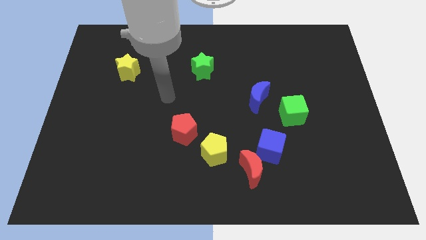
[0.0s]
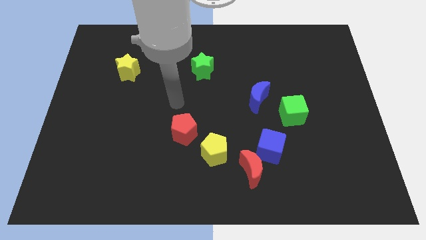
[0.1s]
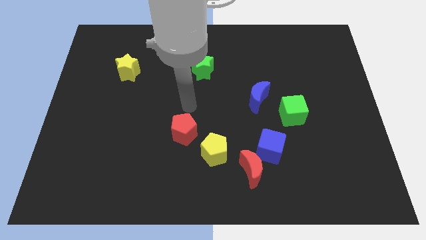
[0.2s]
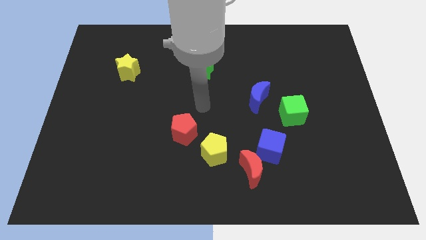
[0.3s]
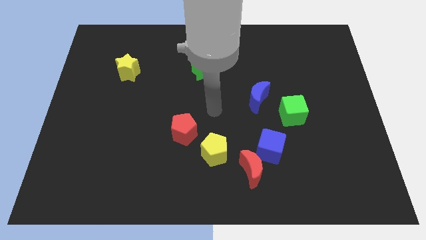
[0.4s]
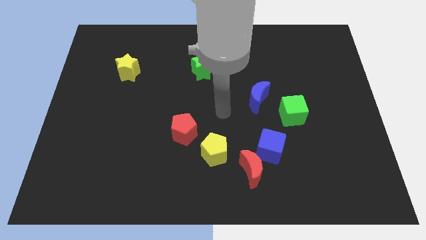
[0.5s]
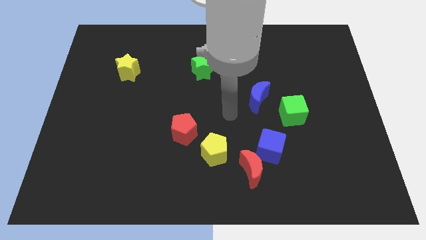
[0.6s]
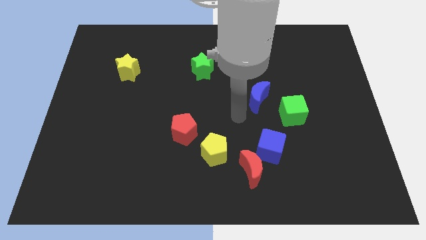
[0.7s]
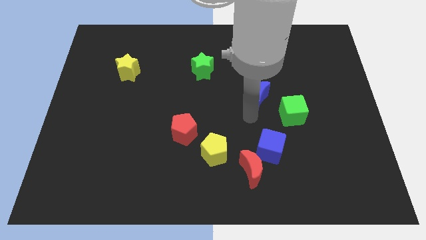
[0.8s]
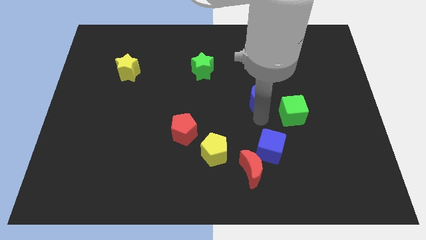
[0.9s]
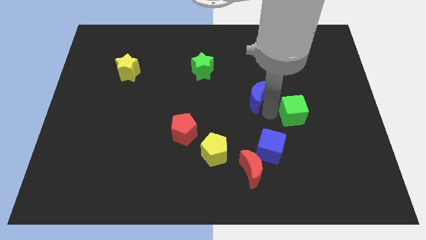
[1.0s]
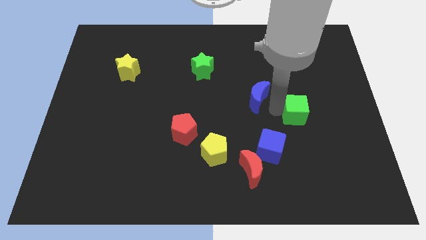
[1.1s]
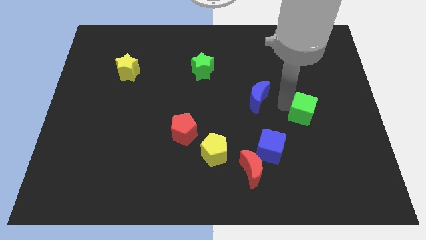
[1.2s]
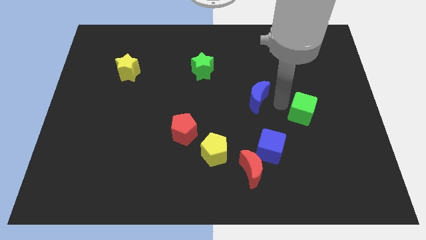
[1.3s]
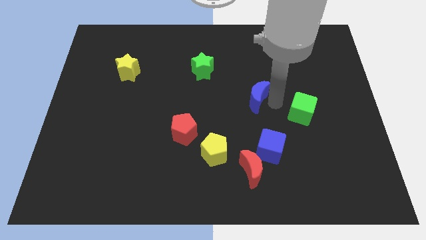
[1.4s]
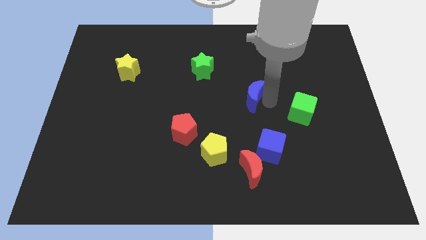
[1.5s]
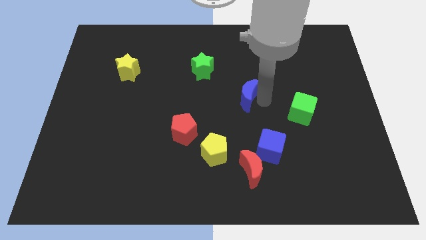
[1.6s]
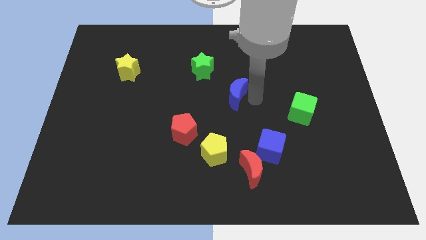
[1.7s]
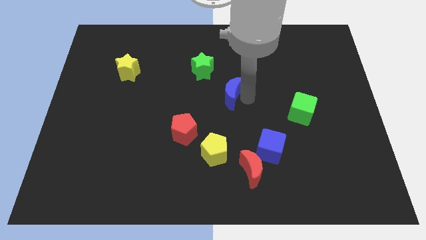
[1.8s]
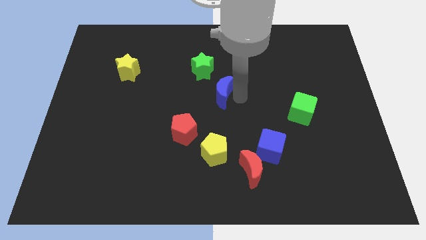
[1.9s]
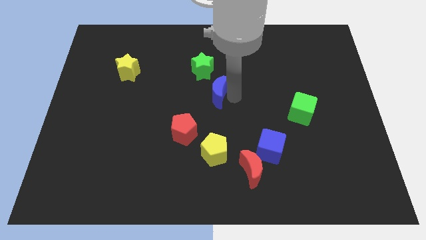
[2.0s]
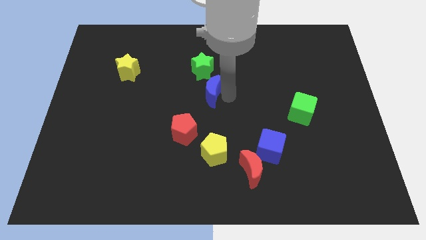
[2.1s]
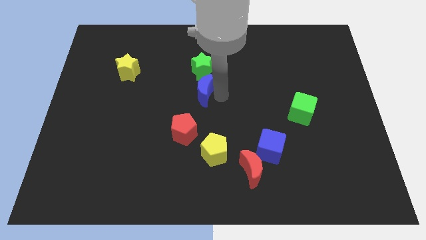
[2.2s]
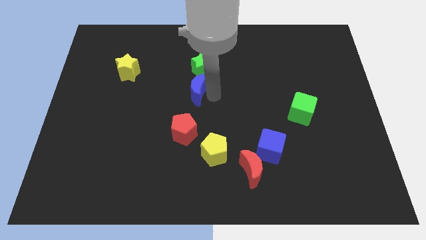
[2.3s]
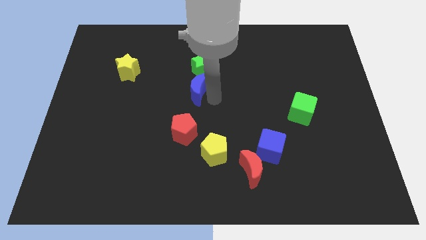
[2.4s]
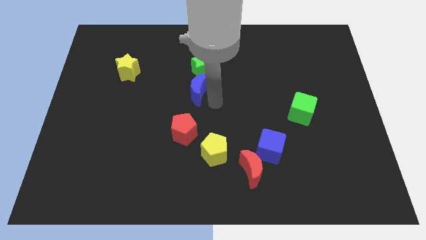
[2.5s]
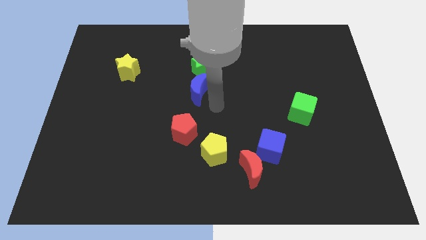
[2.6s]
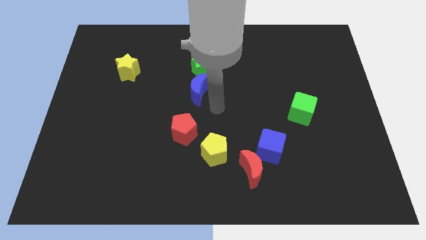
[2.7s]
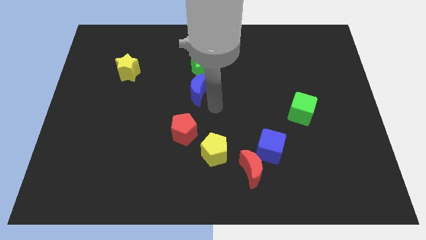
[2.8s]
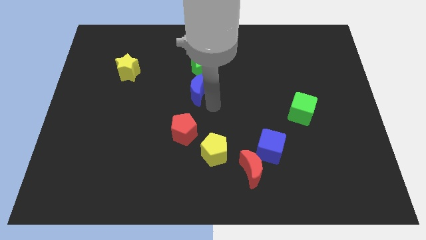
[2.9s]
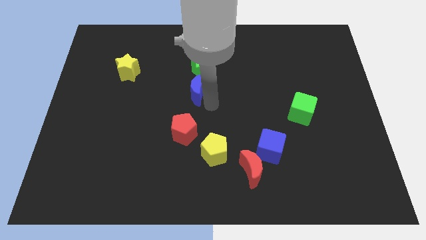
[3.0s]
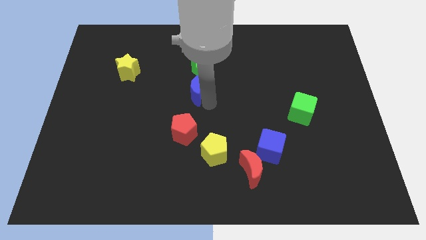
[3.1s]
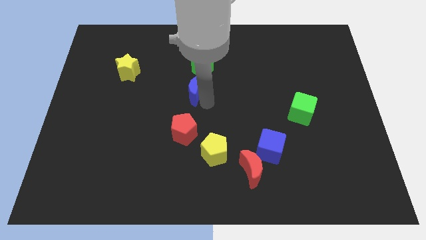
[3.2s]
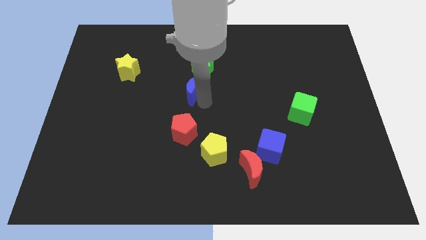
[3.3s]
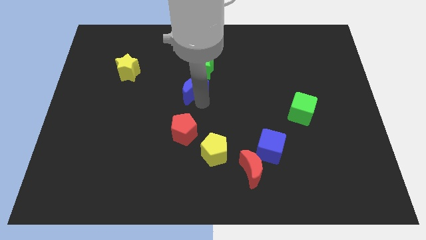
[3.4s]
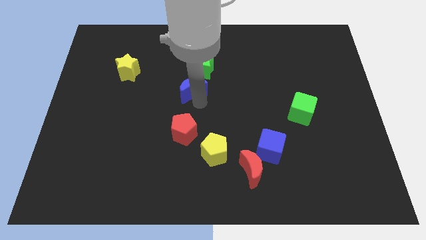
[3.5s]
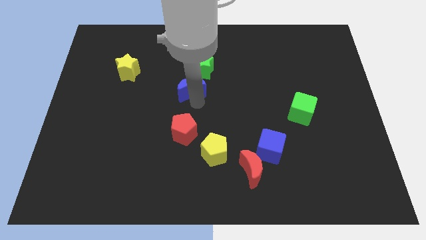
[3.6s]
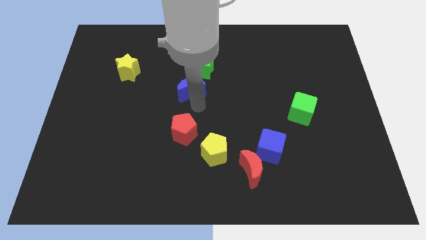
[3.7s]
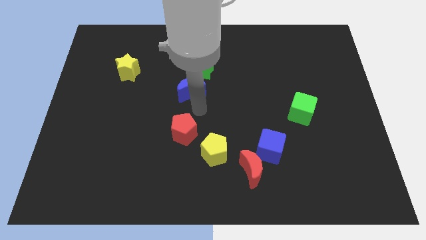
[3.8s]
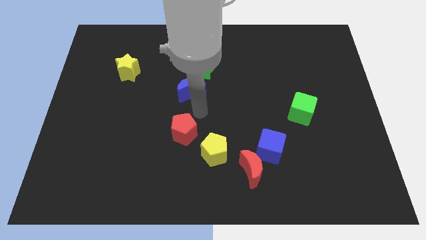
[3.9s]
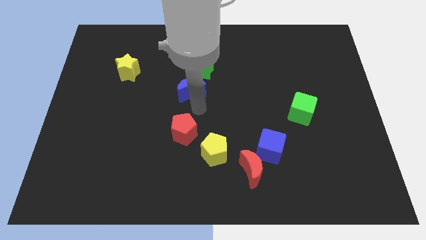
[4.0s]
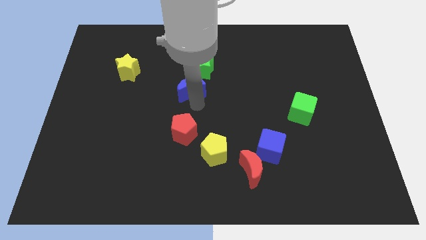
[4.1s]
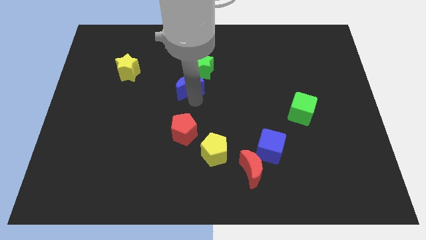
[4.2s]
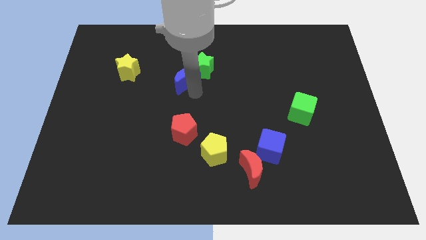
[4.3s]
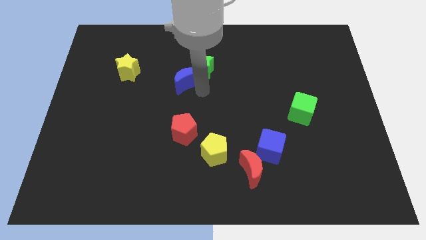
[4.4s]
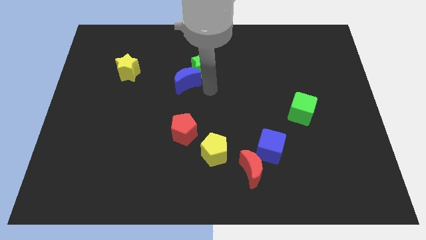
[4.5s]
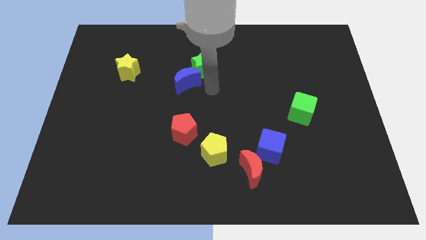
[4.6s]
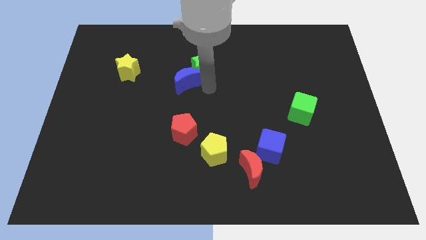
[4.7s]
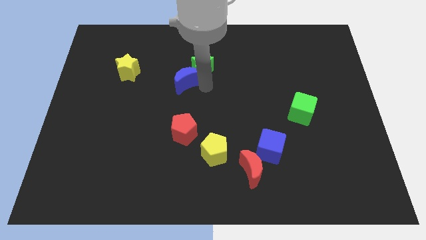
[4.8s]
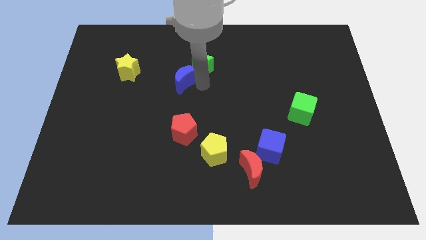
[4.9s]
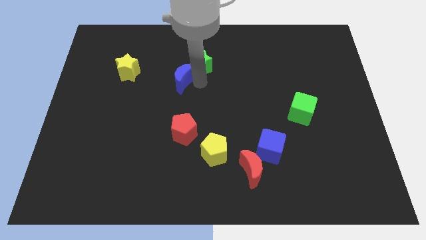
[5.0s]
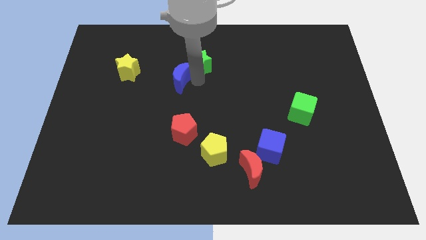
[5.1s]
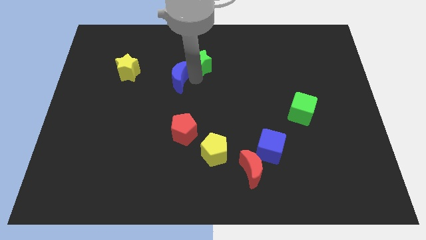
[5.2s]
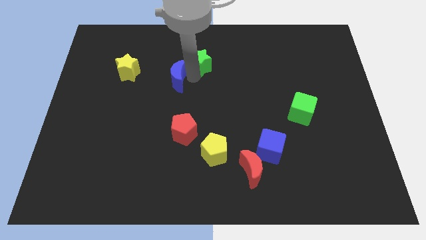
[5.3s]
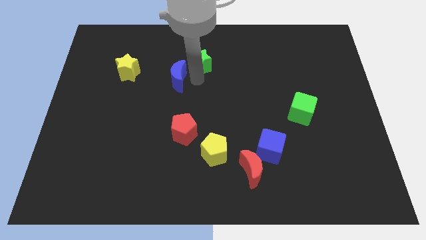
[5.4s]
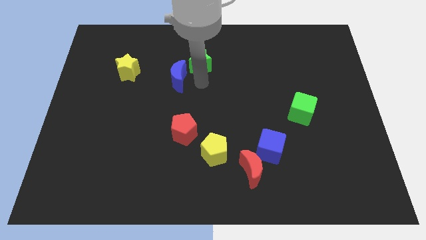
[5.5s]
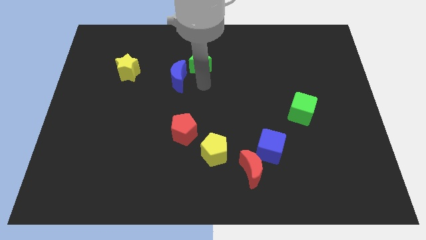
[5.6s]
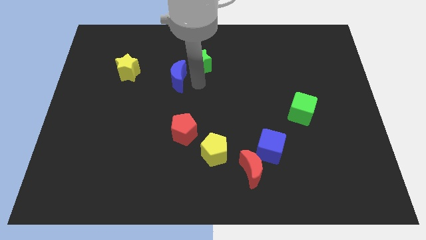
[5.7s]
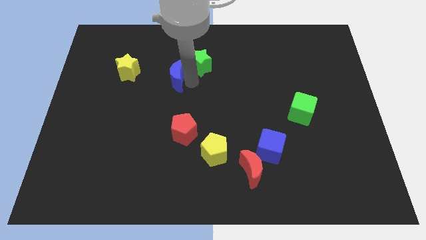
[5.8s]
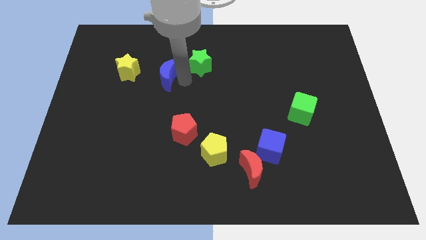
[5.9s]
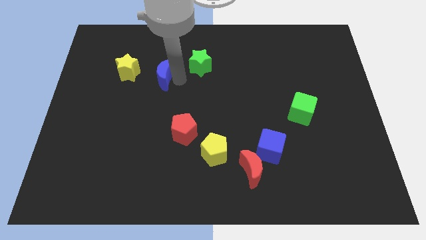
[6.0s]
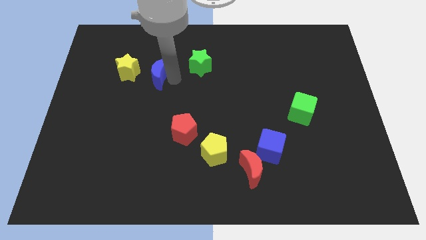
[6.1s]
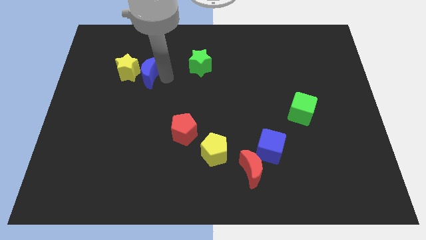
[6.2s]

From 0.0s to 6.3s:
push the blue moon to the yellow star

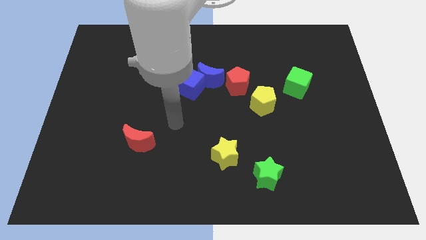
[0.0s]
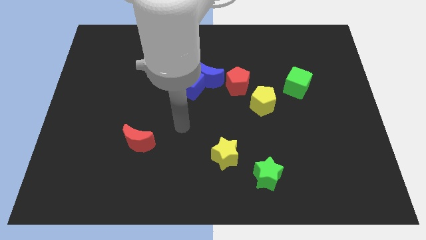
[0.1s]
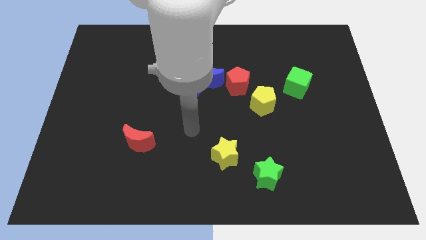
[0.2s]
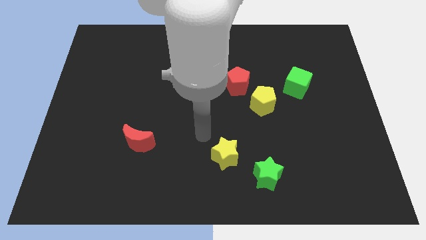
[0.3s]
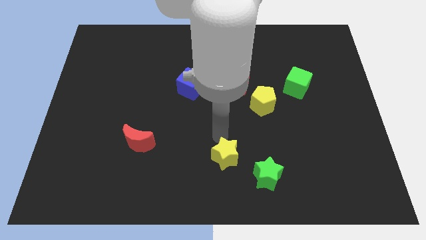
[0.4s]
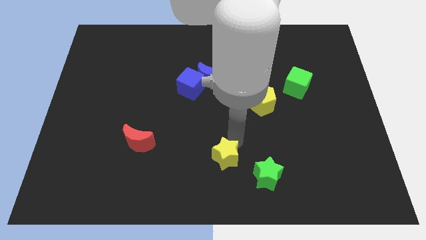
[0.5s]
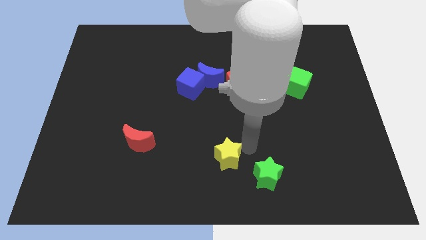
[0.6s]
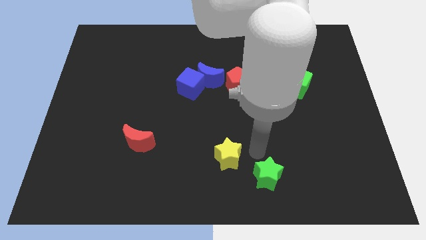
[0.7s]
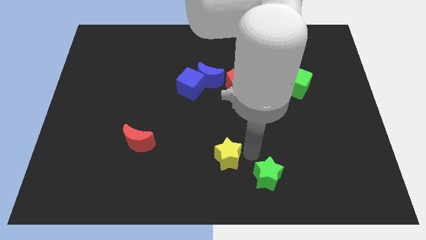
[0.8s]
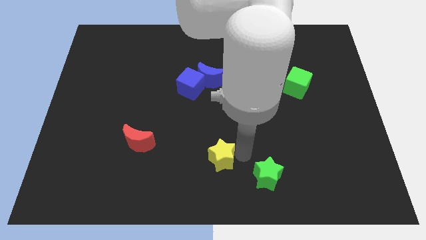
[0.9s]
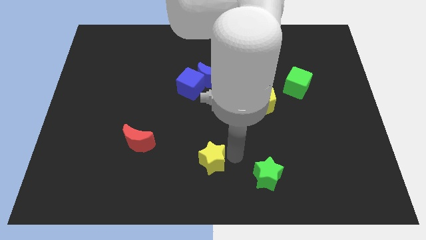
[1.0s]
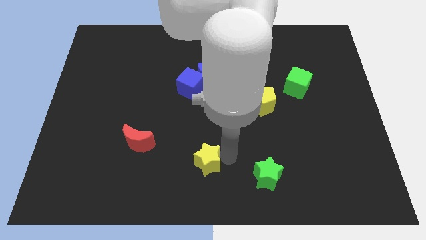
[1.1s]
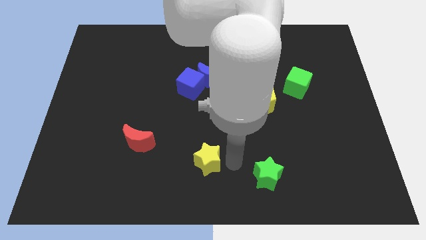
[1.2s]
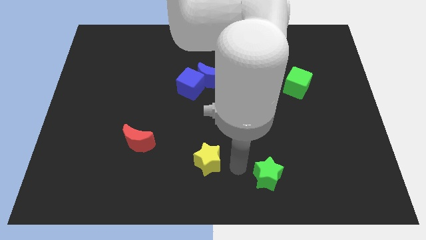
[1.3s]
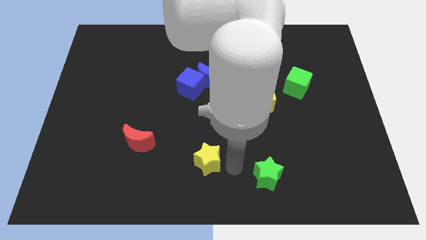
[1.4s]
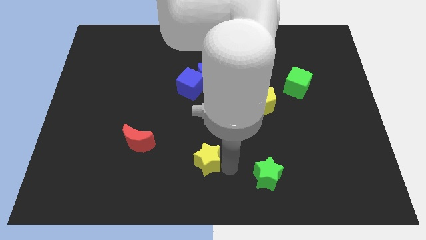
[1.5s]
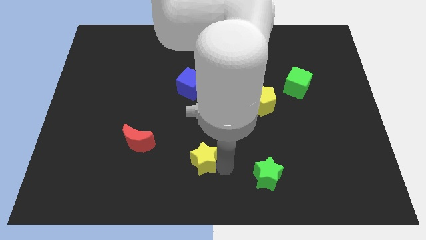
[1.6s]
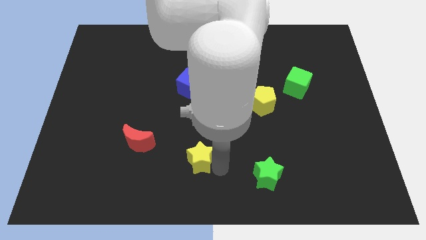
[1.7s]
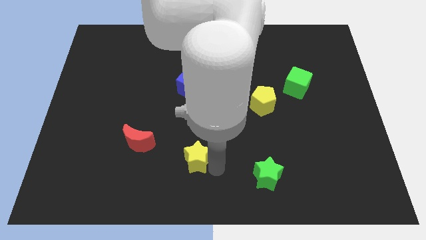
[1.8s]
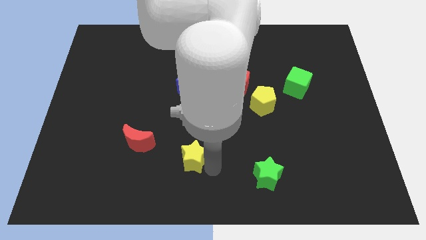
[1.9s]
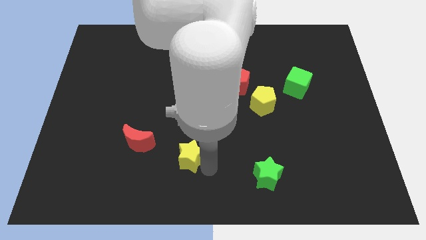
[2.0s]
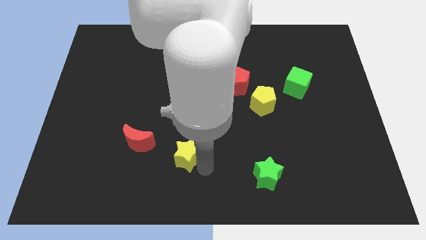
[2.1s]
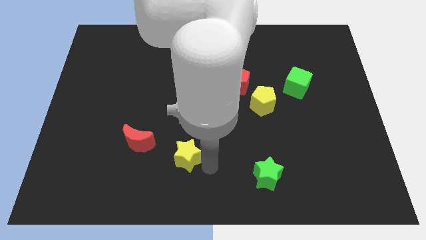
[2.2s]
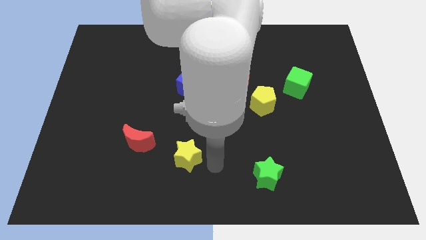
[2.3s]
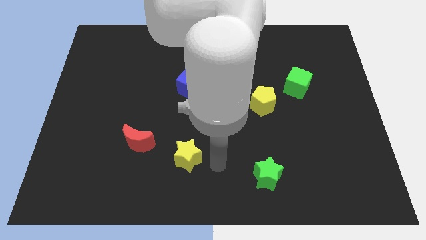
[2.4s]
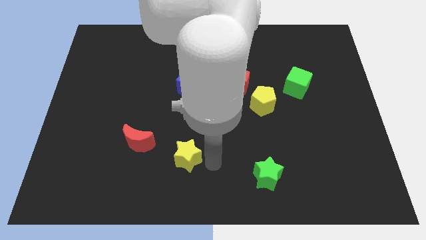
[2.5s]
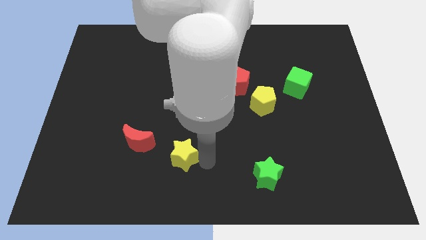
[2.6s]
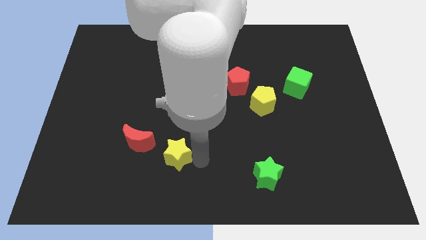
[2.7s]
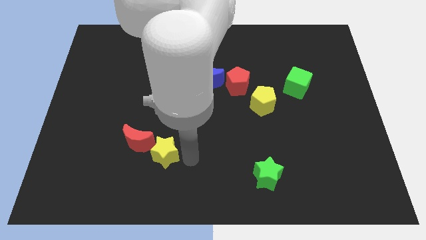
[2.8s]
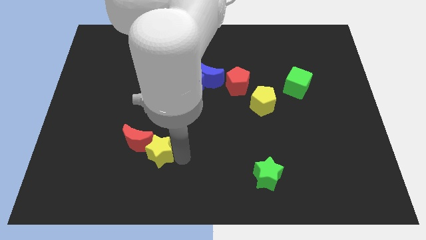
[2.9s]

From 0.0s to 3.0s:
push the yellow star next to the red moon
